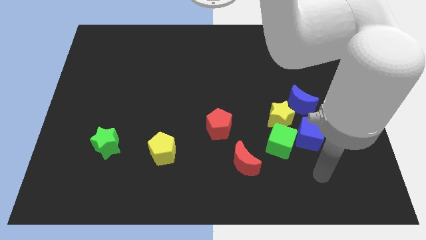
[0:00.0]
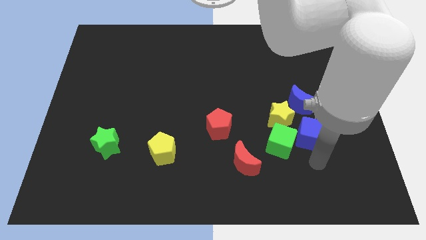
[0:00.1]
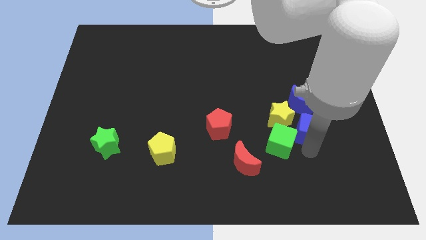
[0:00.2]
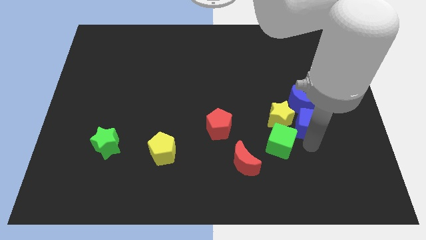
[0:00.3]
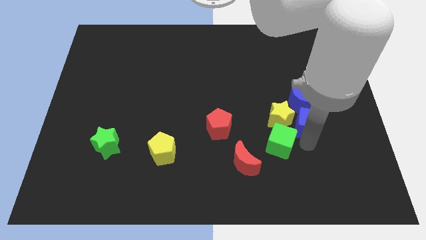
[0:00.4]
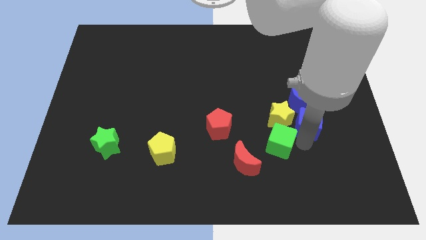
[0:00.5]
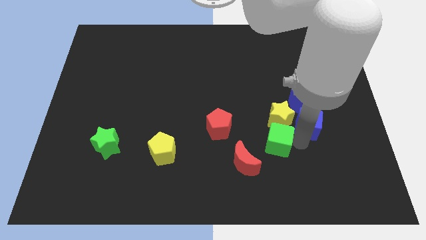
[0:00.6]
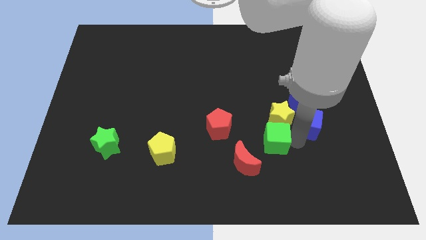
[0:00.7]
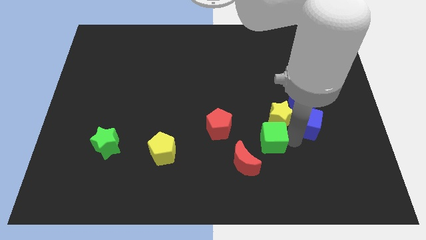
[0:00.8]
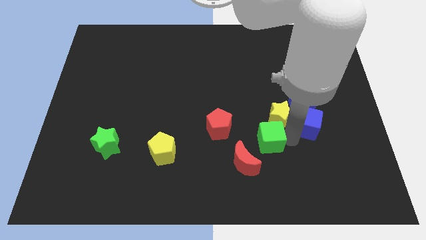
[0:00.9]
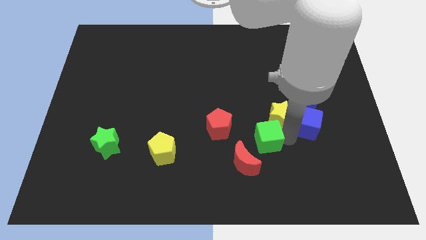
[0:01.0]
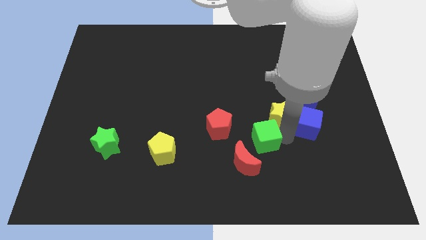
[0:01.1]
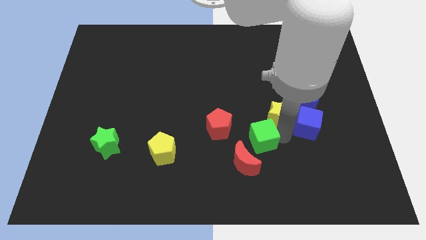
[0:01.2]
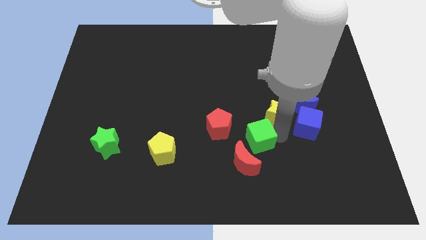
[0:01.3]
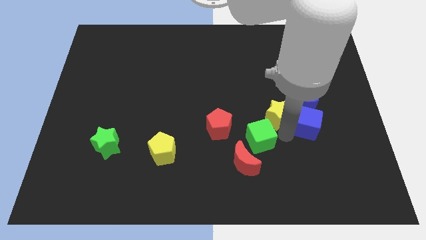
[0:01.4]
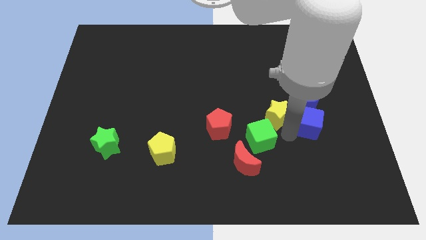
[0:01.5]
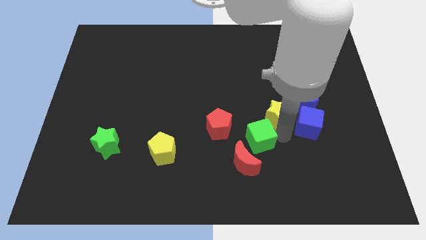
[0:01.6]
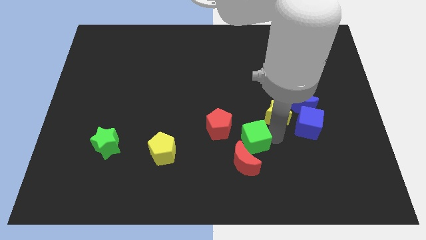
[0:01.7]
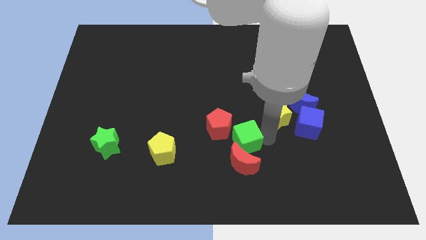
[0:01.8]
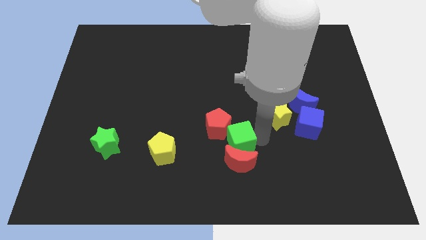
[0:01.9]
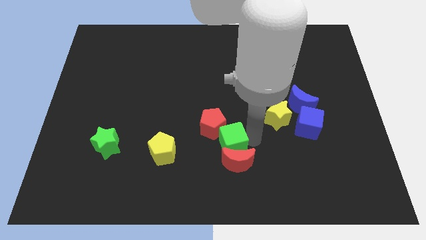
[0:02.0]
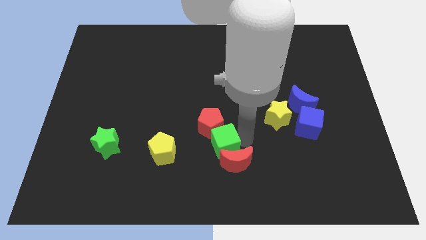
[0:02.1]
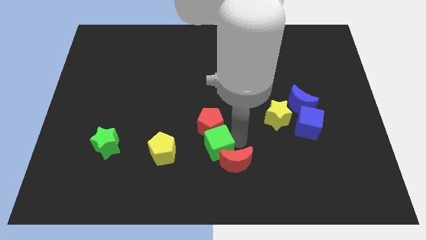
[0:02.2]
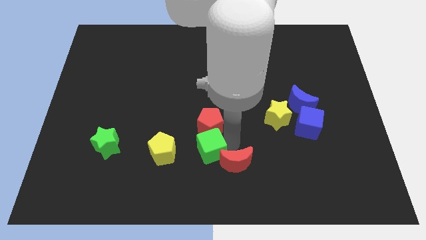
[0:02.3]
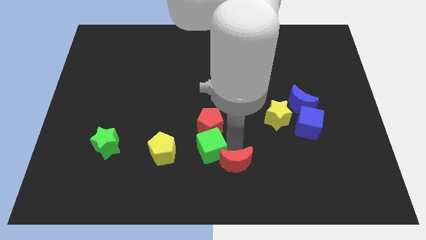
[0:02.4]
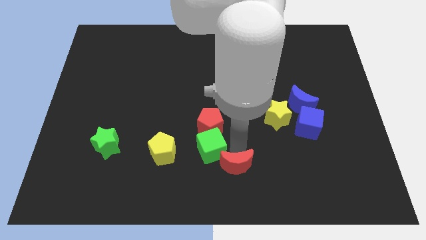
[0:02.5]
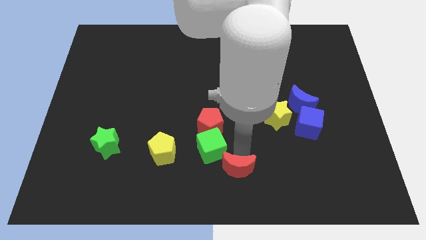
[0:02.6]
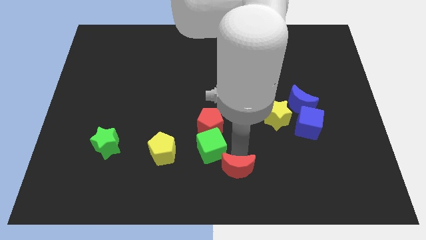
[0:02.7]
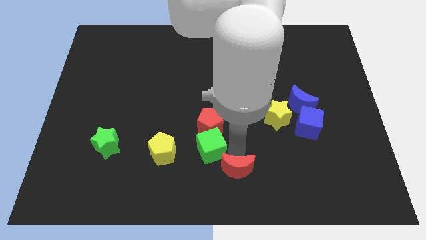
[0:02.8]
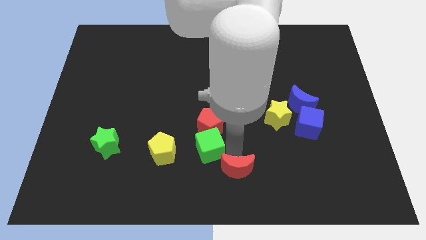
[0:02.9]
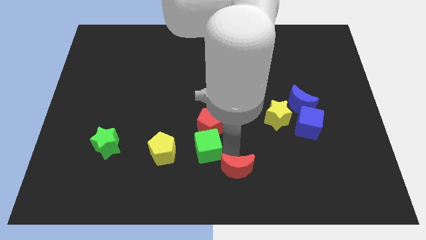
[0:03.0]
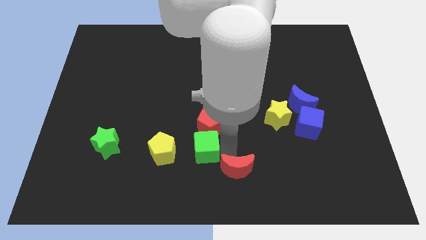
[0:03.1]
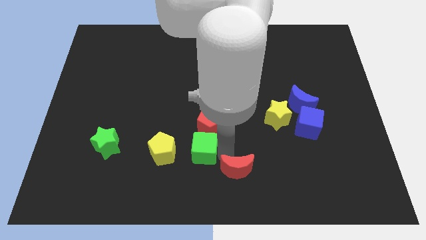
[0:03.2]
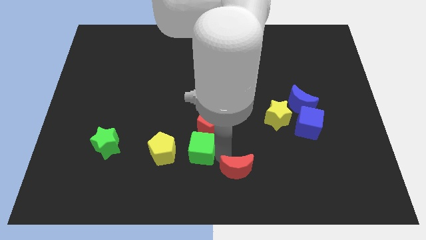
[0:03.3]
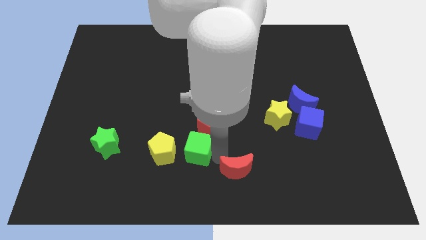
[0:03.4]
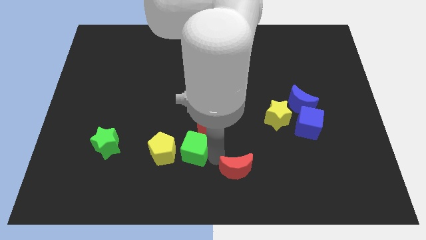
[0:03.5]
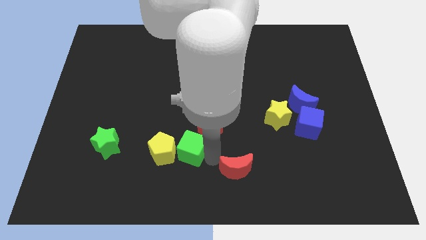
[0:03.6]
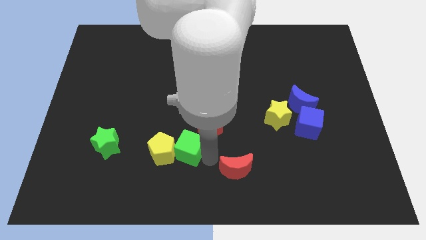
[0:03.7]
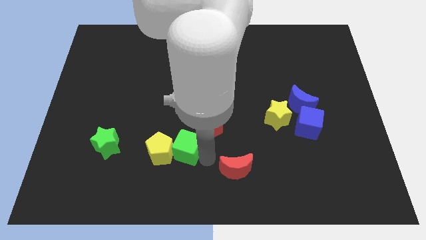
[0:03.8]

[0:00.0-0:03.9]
push the green cube left

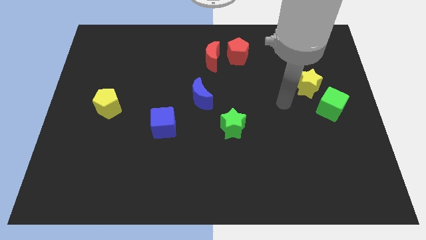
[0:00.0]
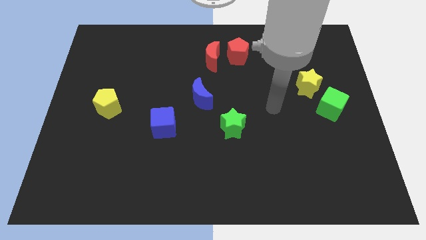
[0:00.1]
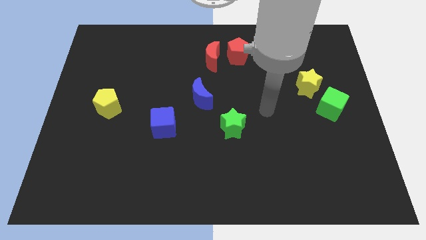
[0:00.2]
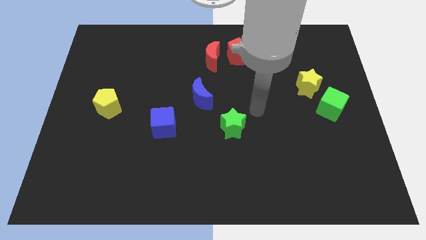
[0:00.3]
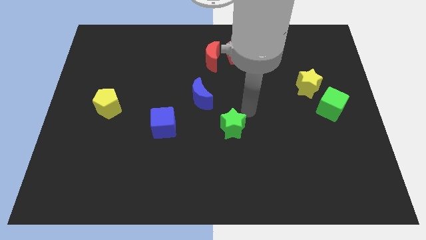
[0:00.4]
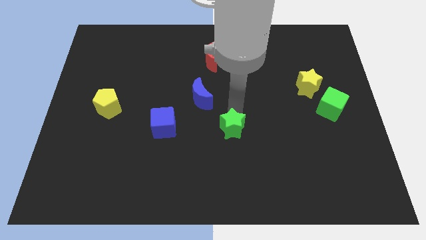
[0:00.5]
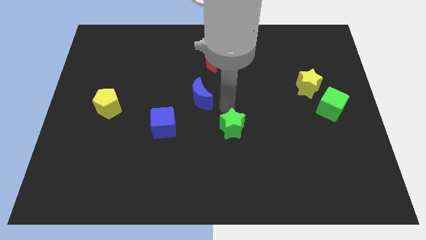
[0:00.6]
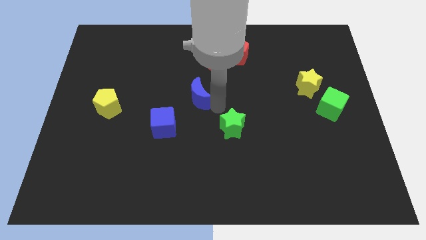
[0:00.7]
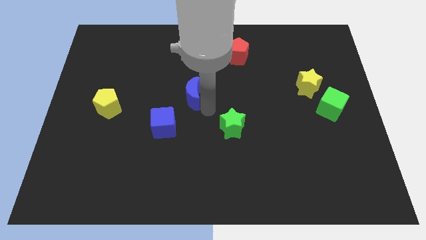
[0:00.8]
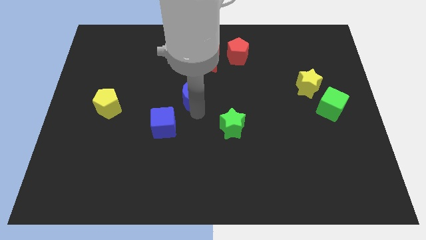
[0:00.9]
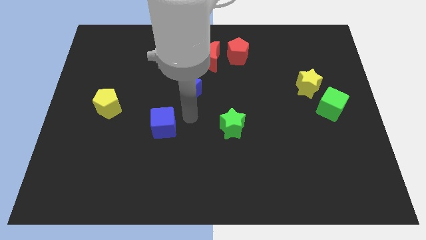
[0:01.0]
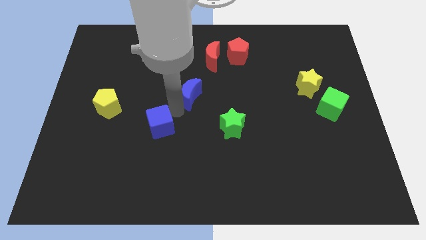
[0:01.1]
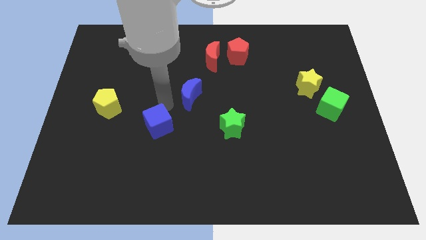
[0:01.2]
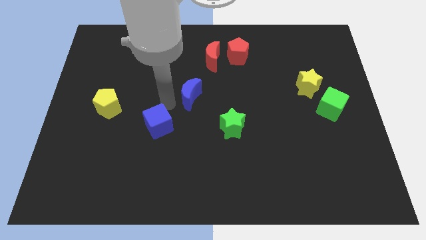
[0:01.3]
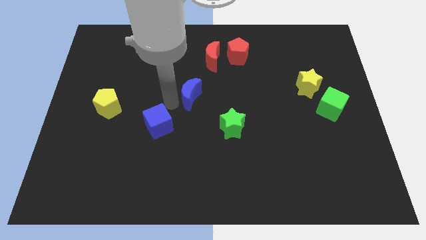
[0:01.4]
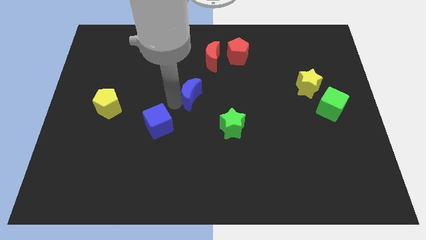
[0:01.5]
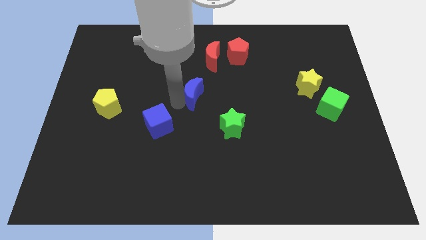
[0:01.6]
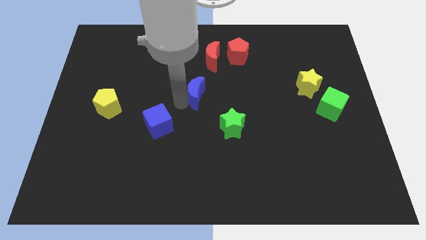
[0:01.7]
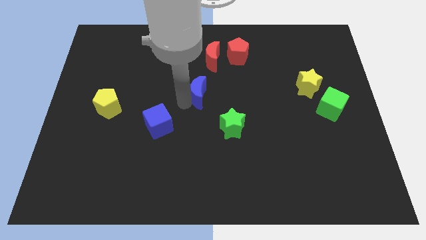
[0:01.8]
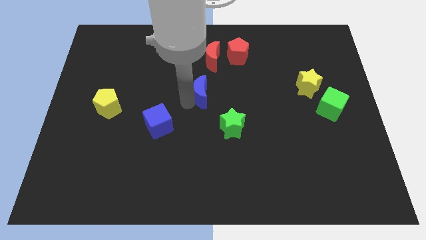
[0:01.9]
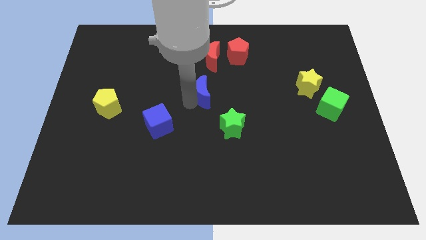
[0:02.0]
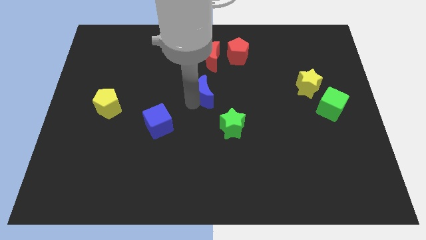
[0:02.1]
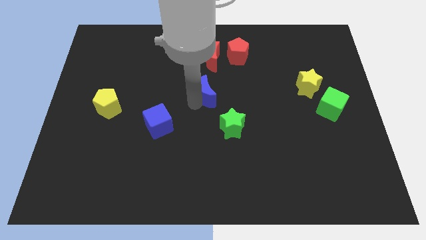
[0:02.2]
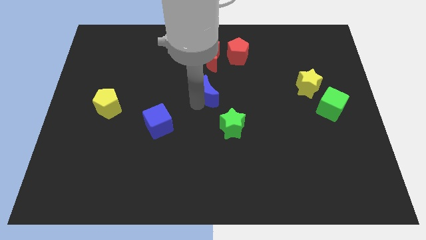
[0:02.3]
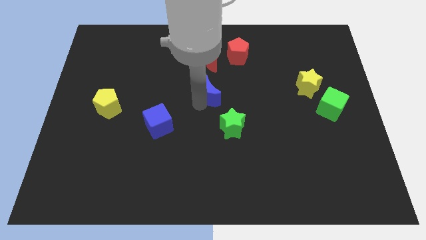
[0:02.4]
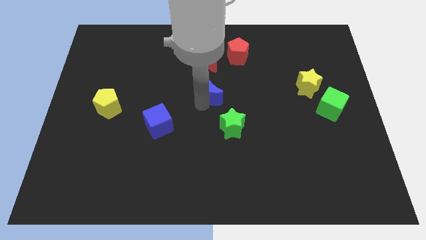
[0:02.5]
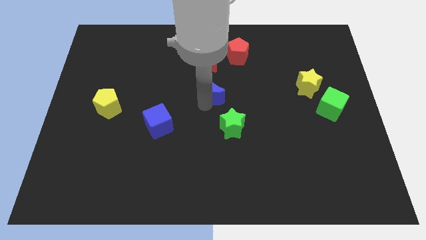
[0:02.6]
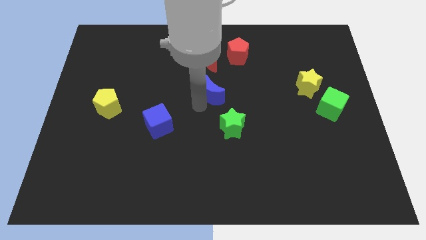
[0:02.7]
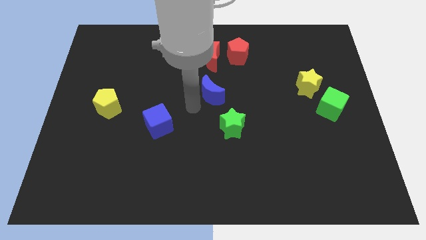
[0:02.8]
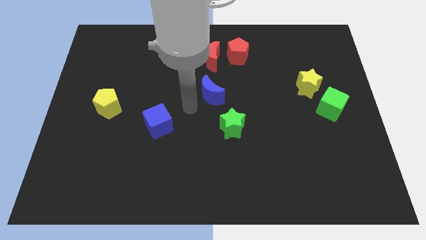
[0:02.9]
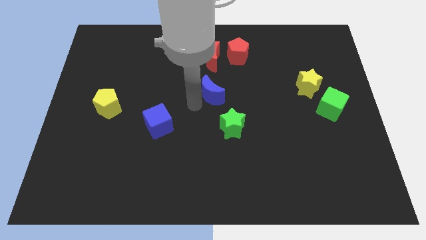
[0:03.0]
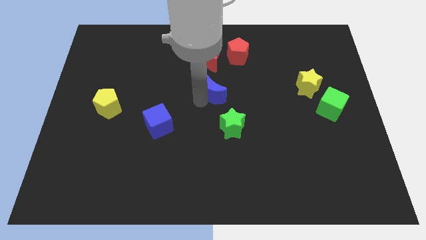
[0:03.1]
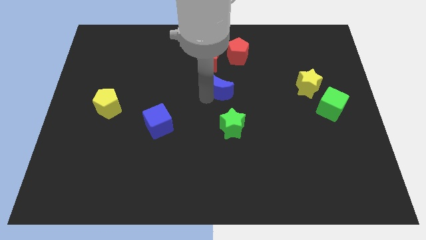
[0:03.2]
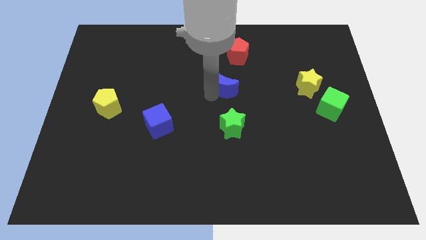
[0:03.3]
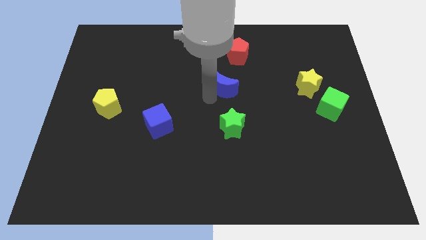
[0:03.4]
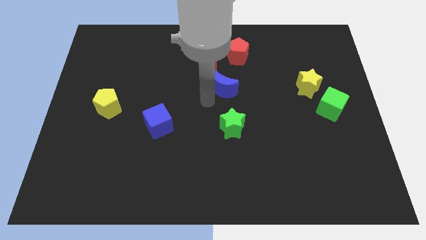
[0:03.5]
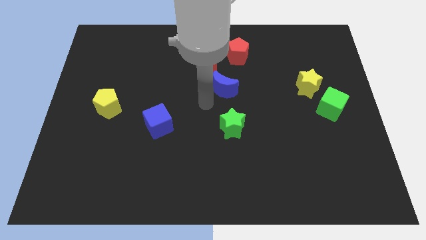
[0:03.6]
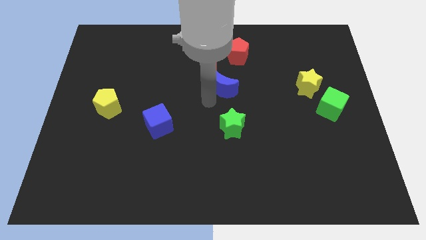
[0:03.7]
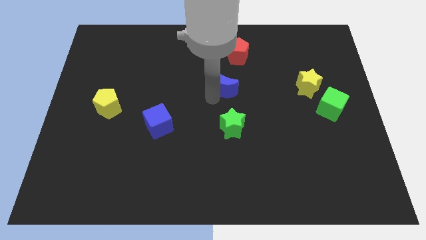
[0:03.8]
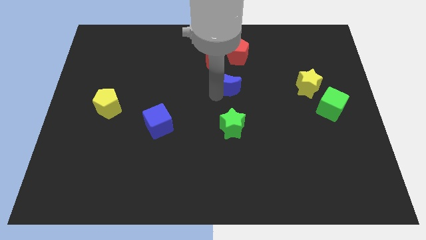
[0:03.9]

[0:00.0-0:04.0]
push the blue moon a little up and to the right diagonally
